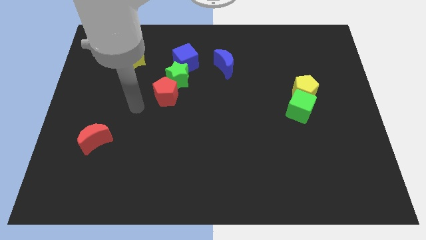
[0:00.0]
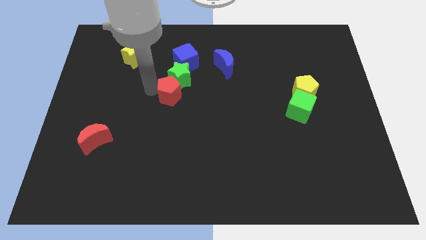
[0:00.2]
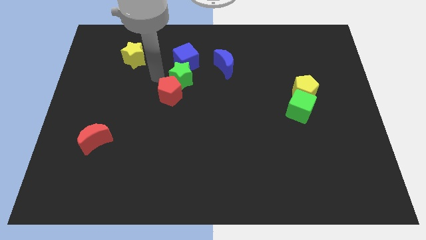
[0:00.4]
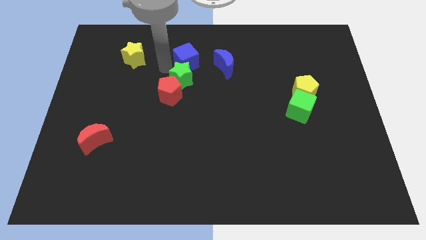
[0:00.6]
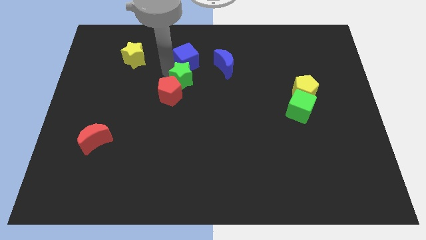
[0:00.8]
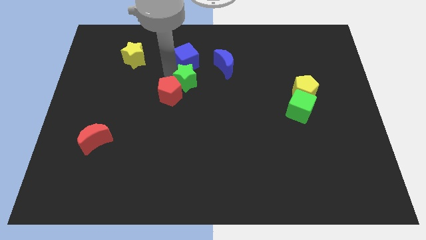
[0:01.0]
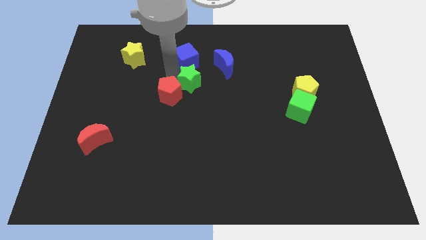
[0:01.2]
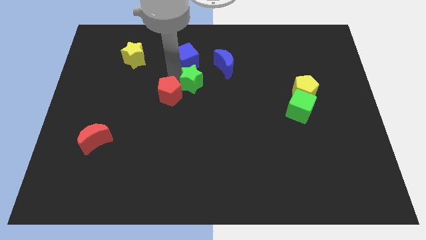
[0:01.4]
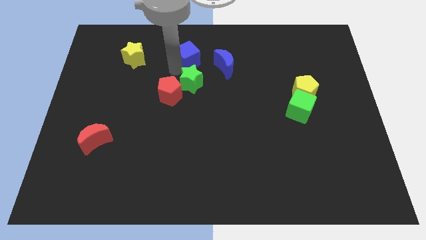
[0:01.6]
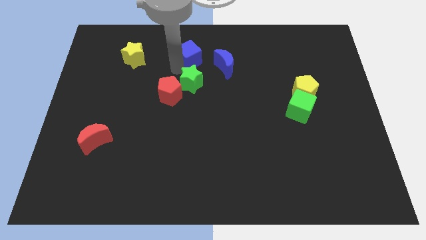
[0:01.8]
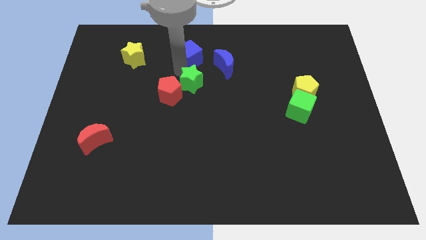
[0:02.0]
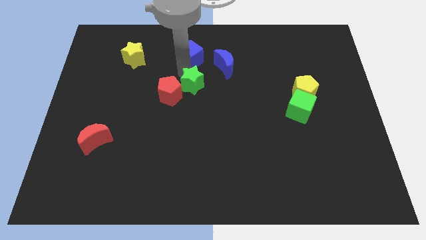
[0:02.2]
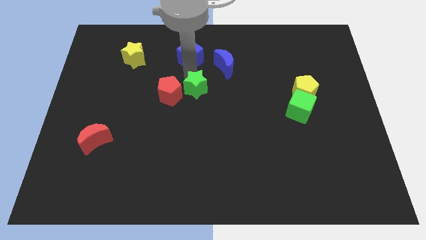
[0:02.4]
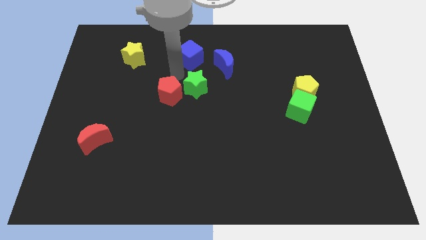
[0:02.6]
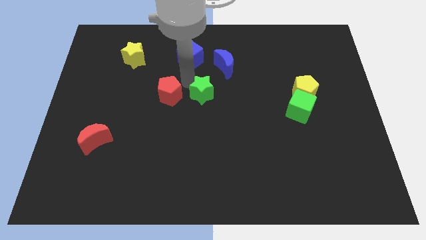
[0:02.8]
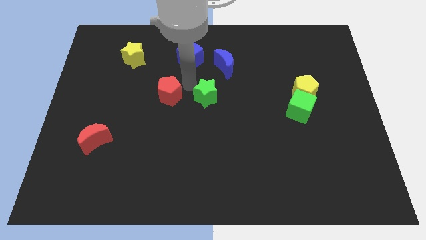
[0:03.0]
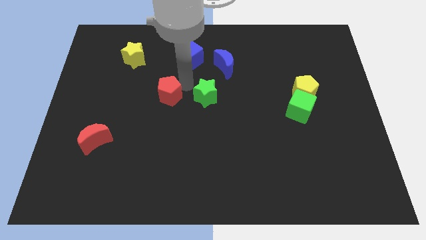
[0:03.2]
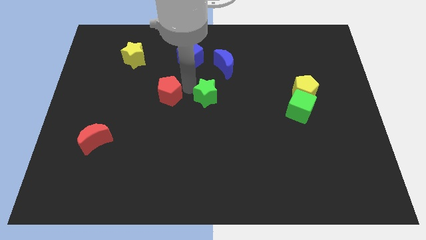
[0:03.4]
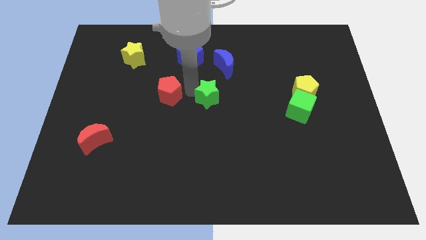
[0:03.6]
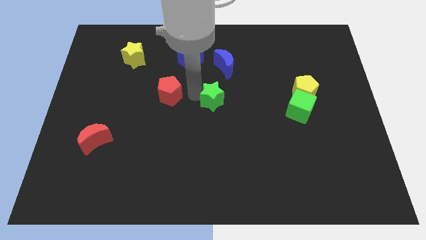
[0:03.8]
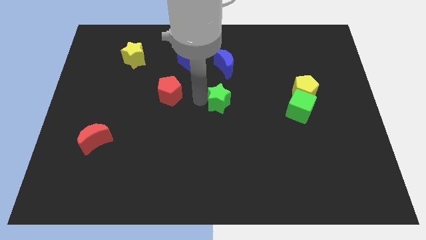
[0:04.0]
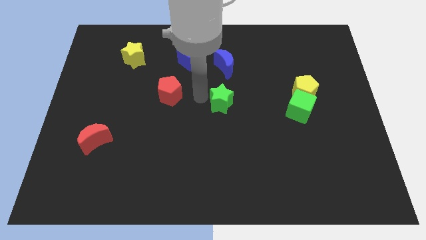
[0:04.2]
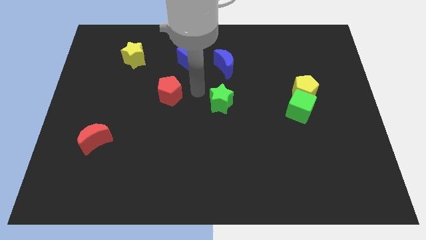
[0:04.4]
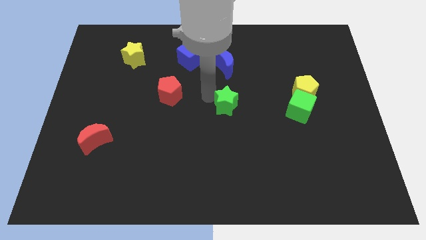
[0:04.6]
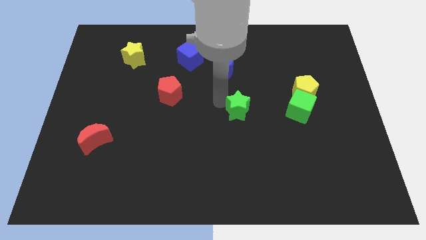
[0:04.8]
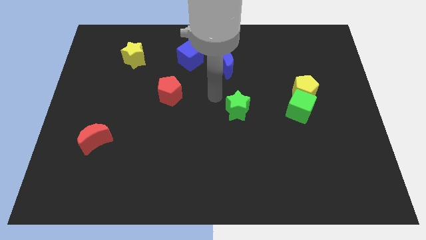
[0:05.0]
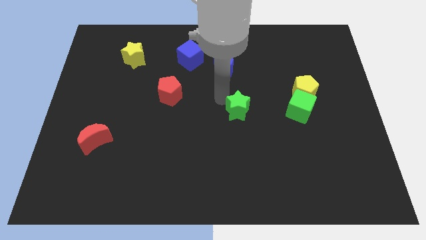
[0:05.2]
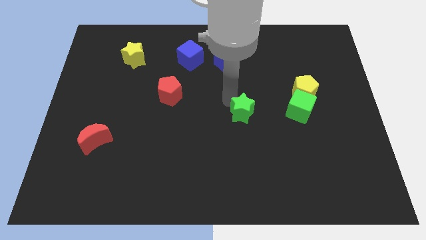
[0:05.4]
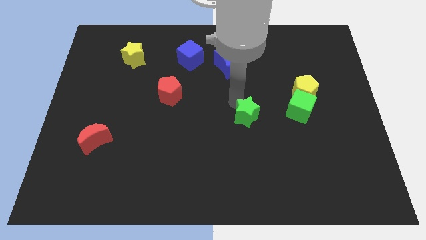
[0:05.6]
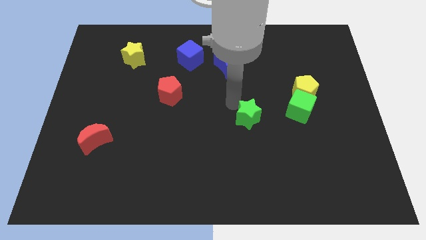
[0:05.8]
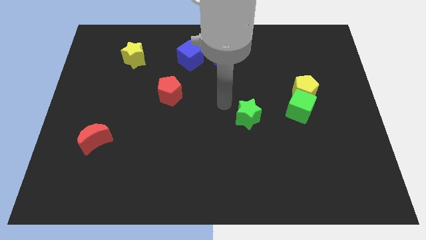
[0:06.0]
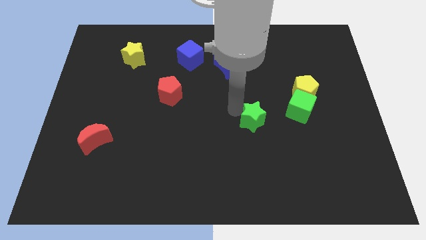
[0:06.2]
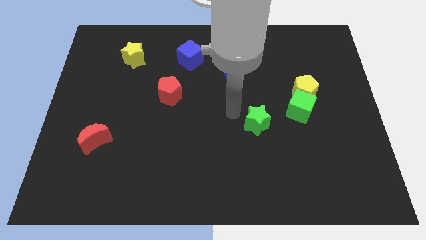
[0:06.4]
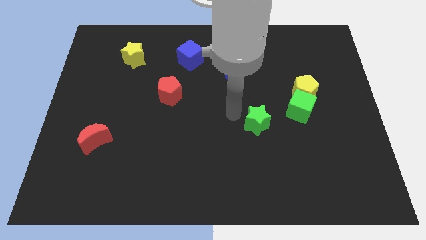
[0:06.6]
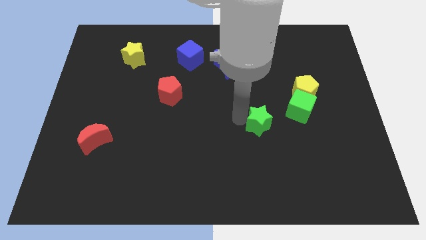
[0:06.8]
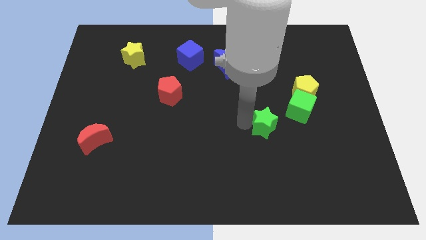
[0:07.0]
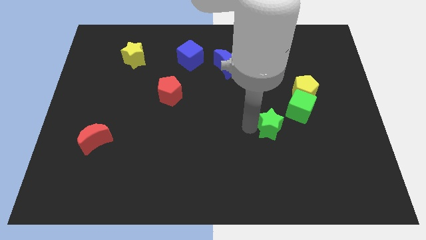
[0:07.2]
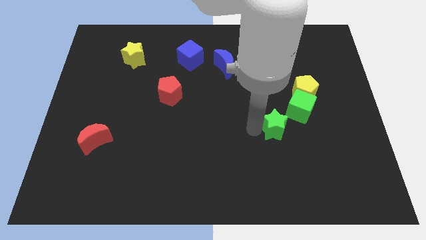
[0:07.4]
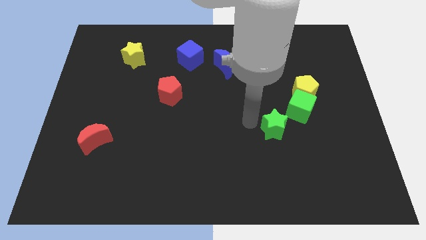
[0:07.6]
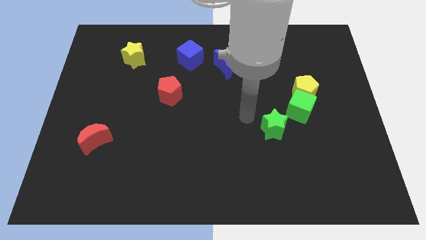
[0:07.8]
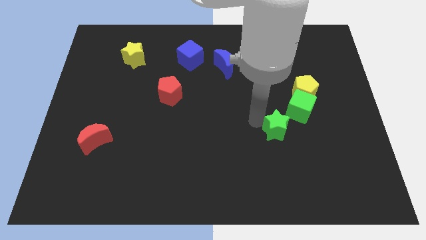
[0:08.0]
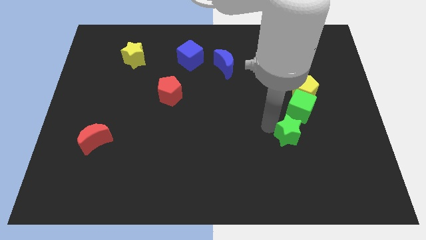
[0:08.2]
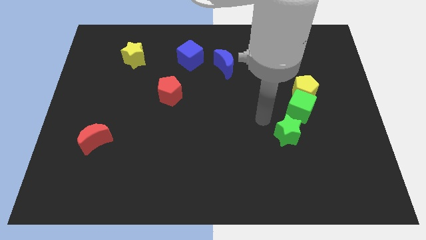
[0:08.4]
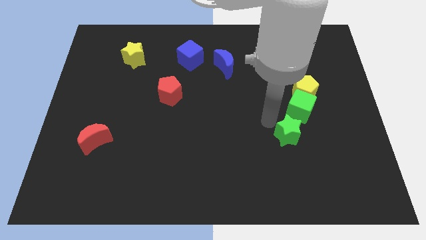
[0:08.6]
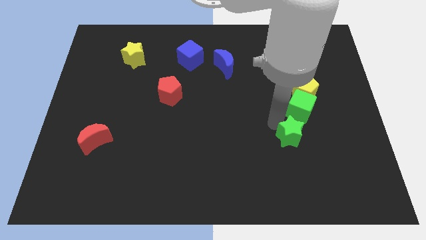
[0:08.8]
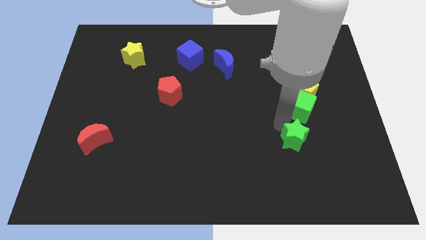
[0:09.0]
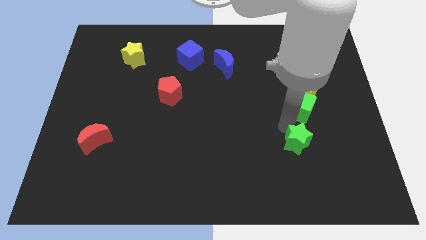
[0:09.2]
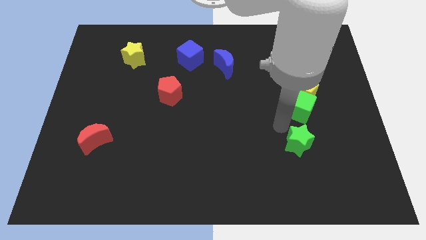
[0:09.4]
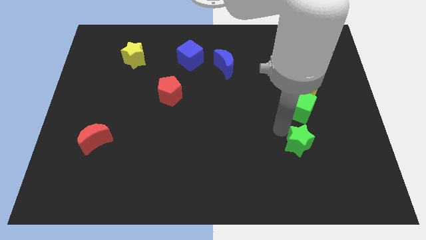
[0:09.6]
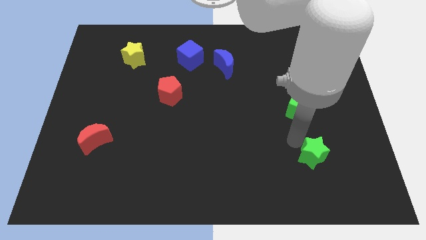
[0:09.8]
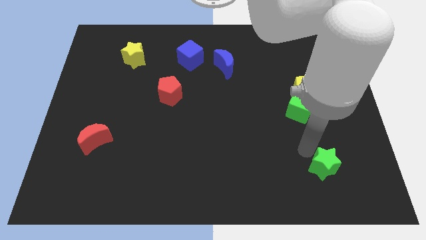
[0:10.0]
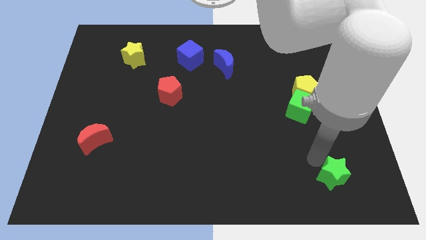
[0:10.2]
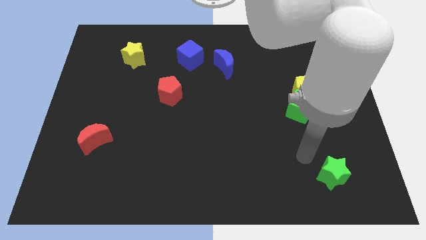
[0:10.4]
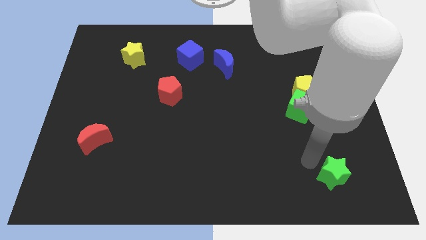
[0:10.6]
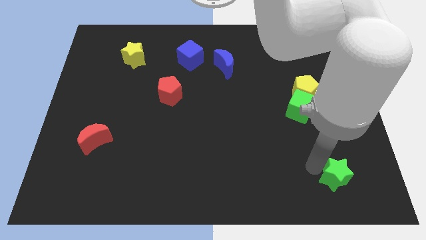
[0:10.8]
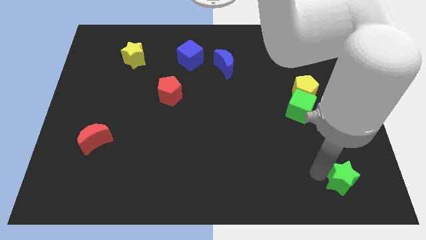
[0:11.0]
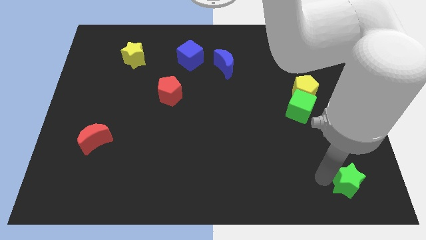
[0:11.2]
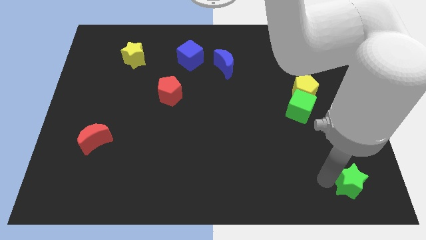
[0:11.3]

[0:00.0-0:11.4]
push the green star to the bottom right corner

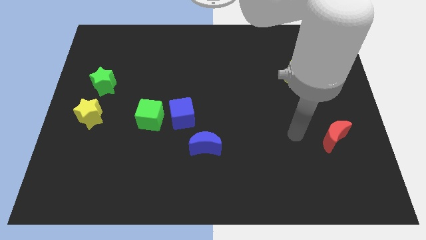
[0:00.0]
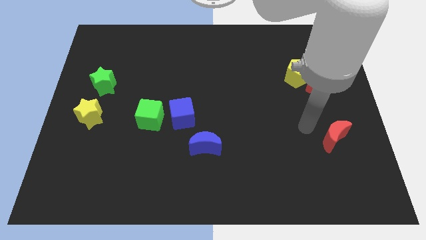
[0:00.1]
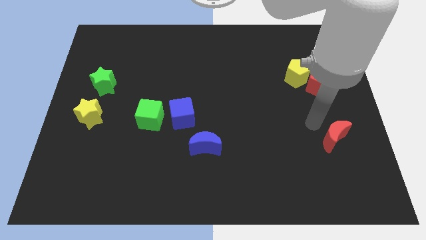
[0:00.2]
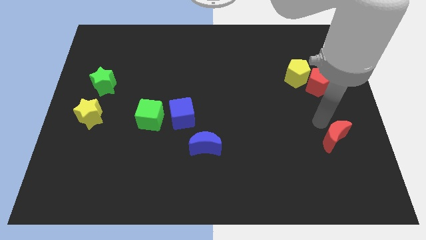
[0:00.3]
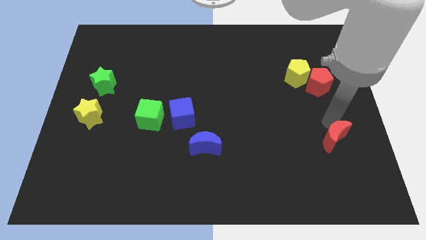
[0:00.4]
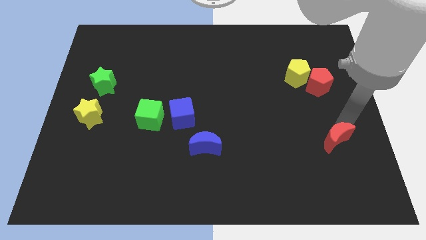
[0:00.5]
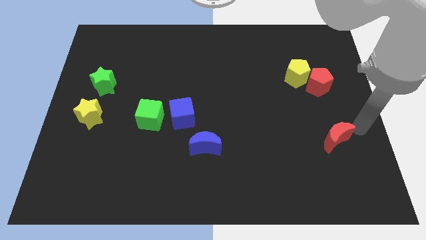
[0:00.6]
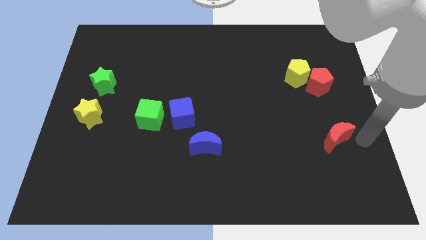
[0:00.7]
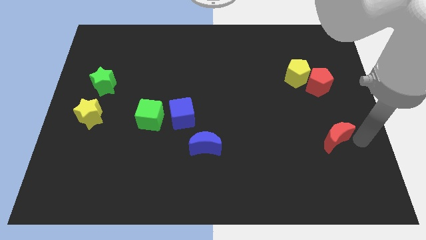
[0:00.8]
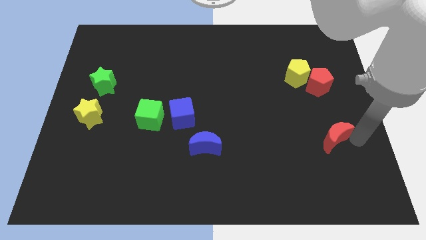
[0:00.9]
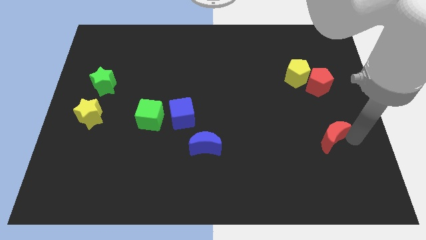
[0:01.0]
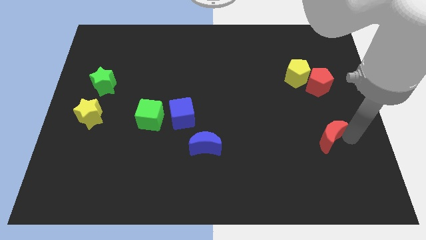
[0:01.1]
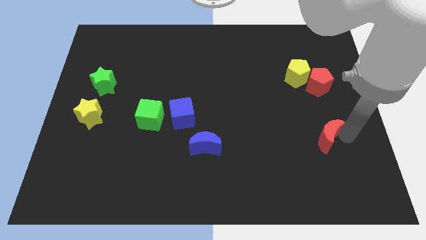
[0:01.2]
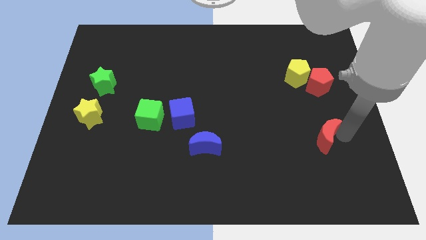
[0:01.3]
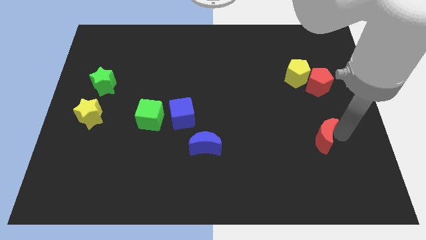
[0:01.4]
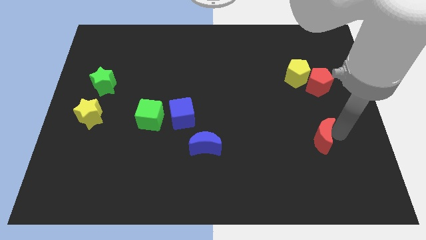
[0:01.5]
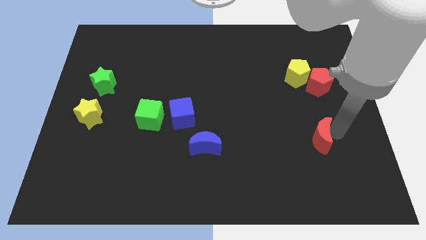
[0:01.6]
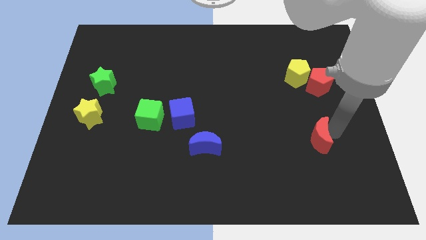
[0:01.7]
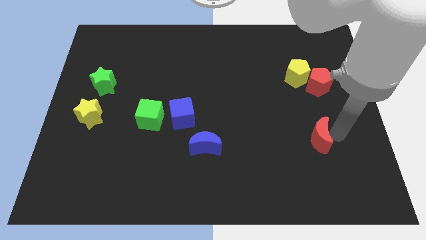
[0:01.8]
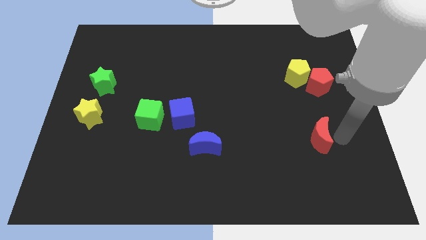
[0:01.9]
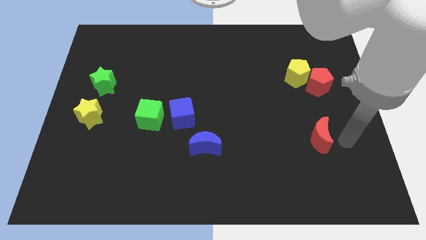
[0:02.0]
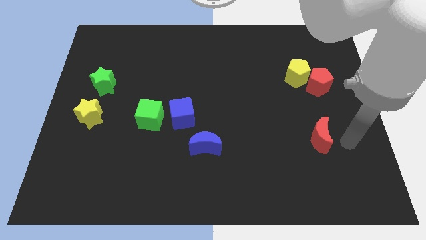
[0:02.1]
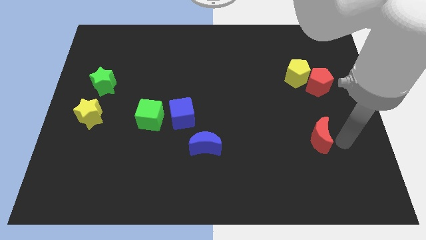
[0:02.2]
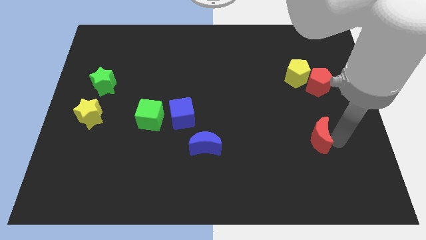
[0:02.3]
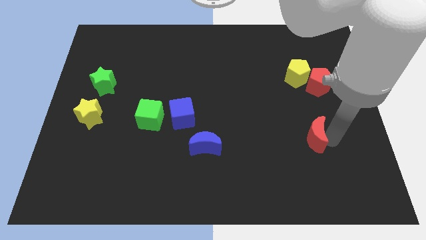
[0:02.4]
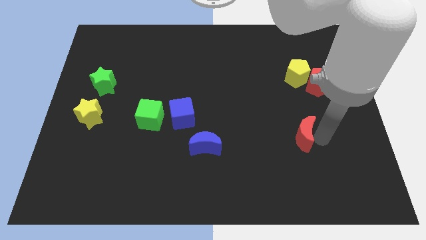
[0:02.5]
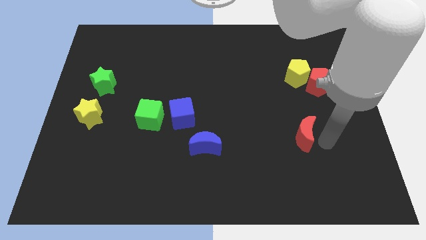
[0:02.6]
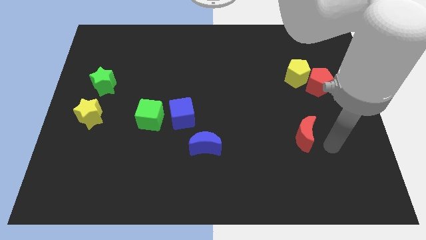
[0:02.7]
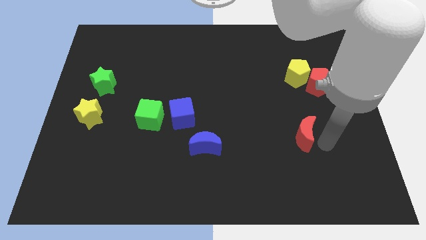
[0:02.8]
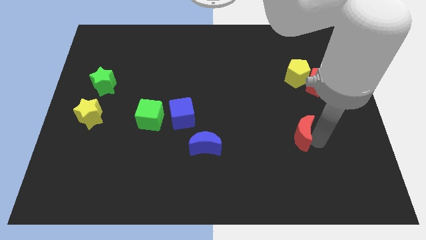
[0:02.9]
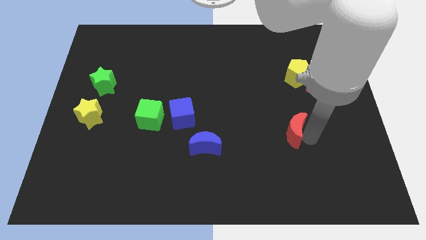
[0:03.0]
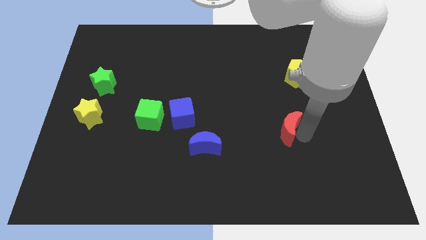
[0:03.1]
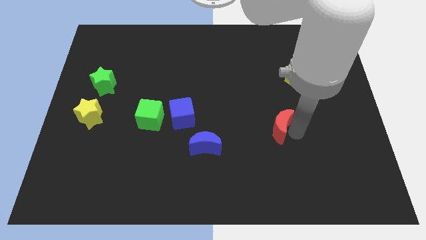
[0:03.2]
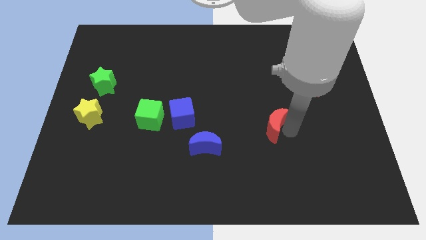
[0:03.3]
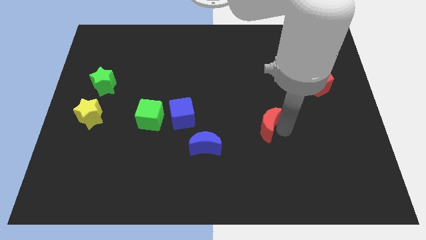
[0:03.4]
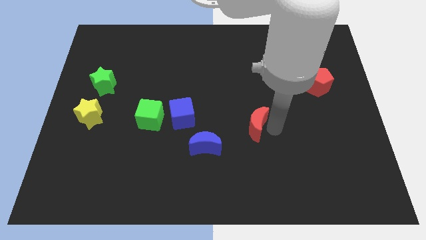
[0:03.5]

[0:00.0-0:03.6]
slide the red moon to the middle of the board
